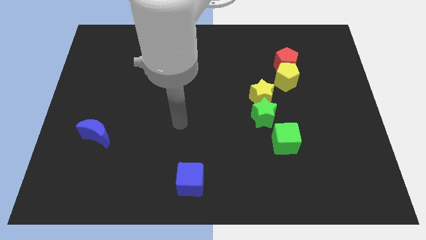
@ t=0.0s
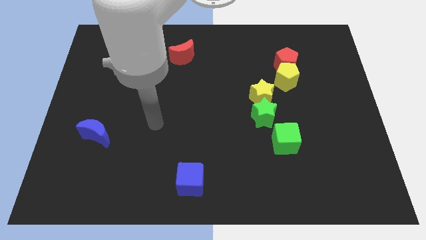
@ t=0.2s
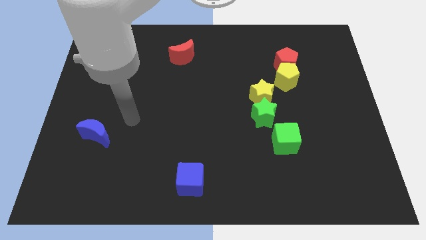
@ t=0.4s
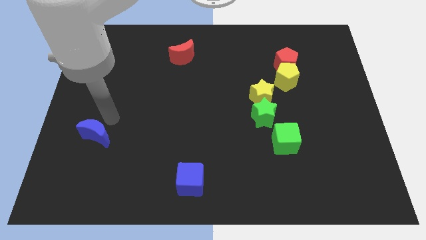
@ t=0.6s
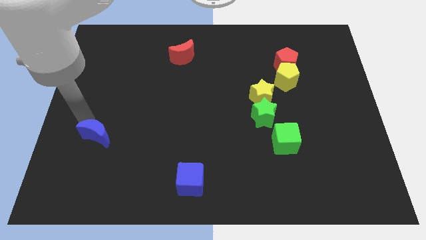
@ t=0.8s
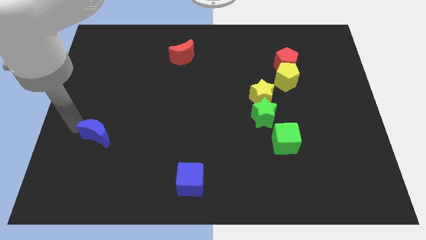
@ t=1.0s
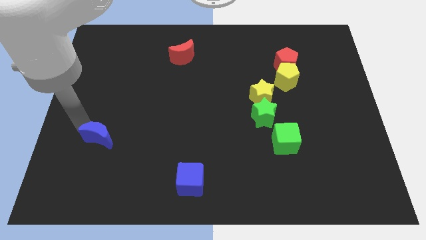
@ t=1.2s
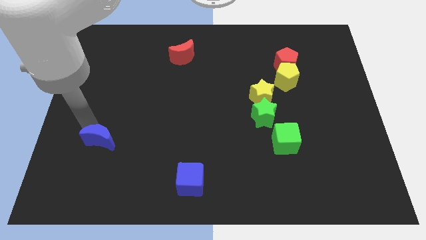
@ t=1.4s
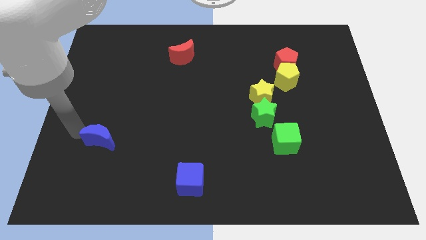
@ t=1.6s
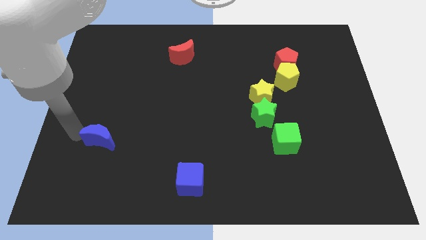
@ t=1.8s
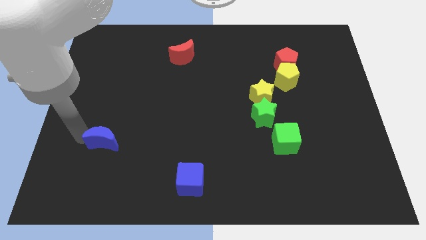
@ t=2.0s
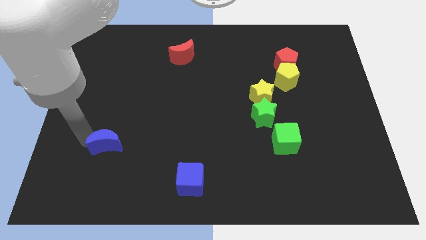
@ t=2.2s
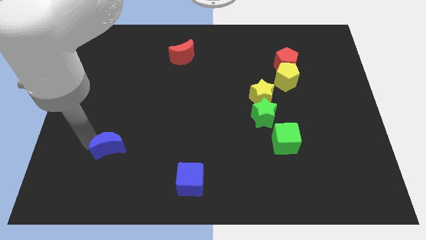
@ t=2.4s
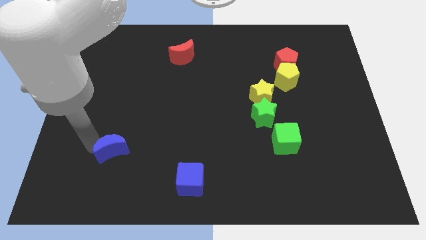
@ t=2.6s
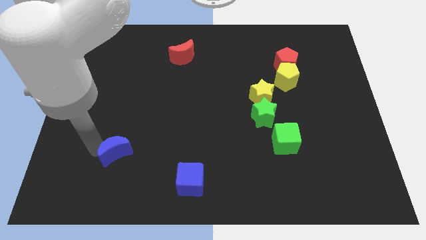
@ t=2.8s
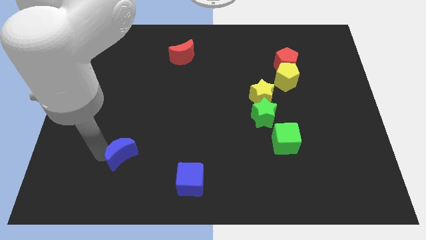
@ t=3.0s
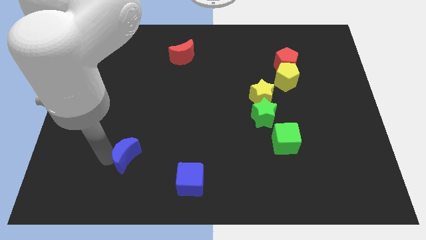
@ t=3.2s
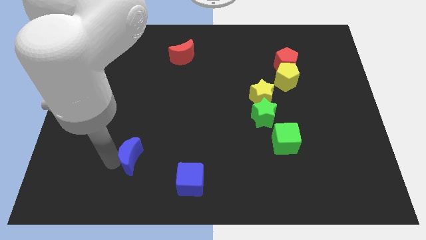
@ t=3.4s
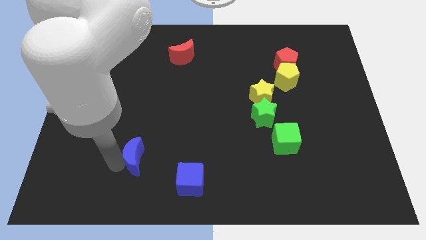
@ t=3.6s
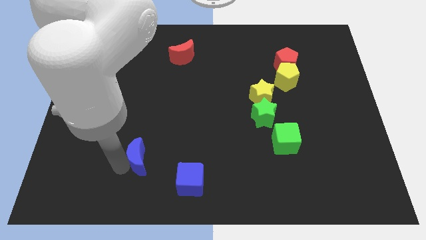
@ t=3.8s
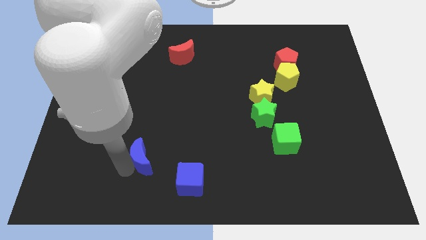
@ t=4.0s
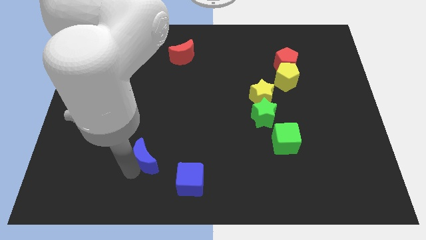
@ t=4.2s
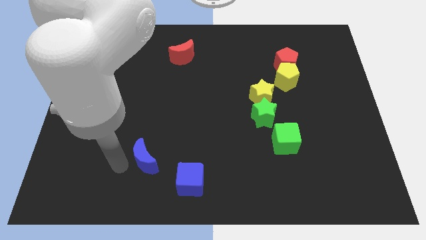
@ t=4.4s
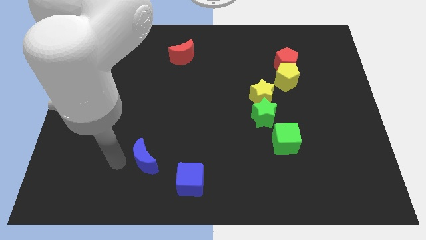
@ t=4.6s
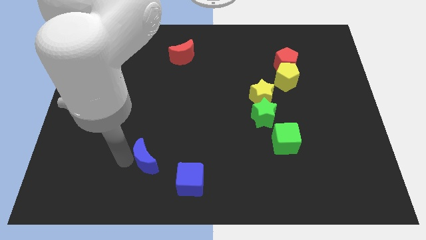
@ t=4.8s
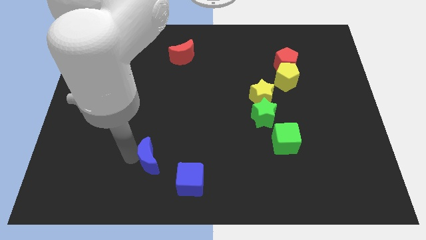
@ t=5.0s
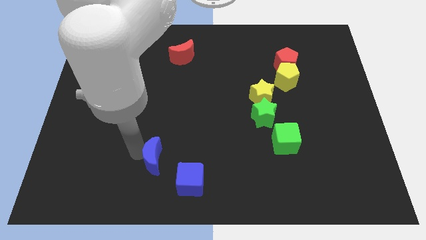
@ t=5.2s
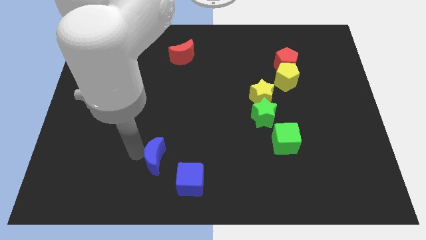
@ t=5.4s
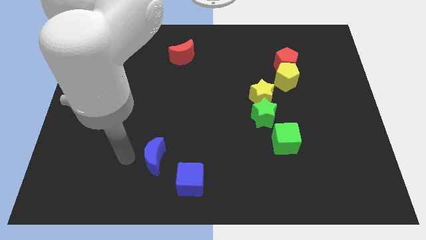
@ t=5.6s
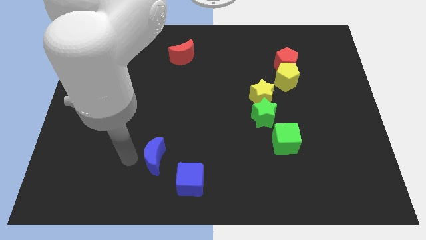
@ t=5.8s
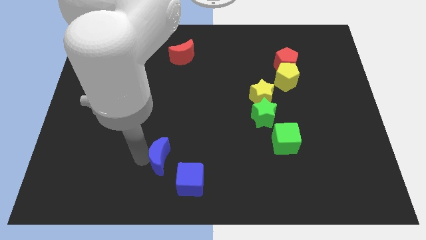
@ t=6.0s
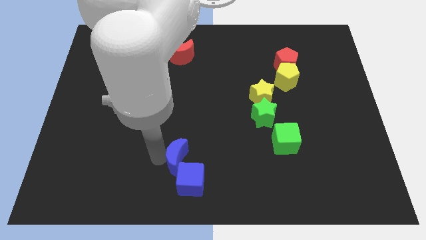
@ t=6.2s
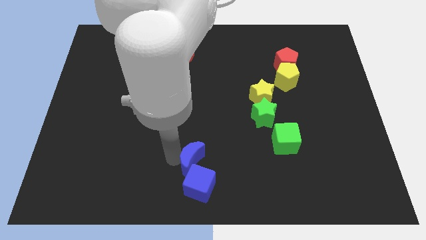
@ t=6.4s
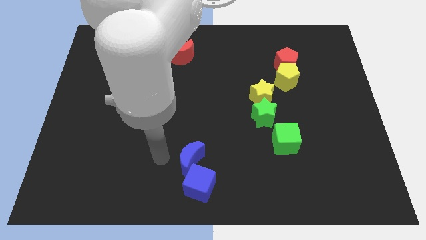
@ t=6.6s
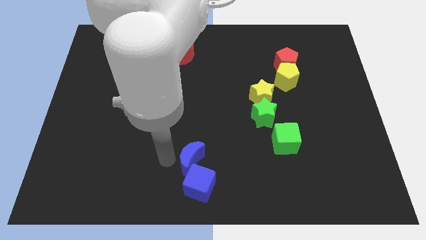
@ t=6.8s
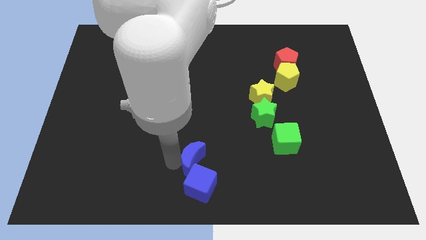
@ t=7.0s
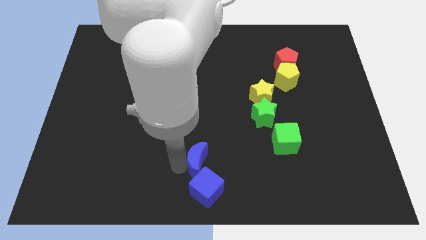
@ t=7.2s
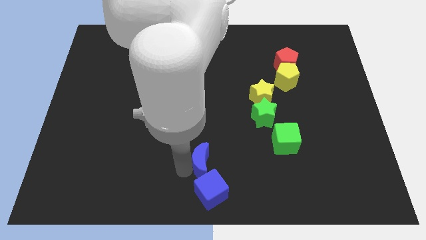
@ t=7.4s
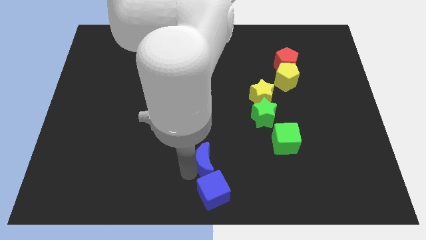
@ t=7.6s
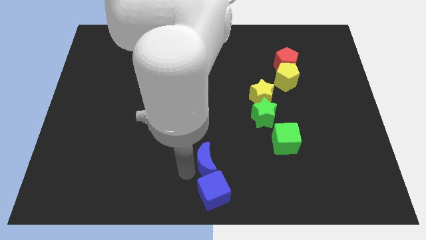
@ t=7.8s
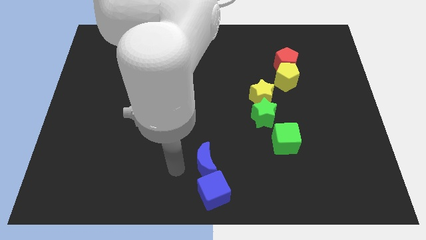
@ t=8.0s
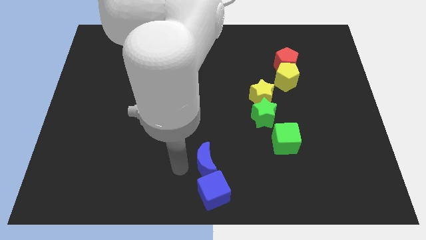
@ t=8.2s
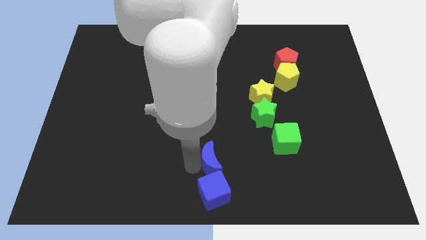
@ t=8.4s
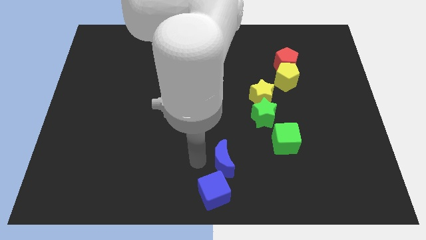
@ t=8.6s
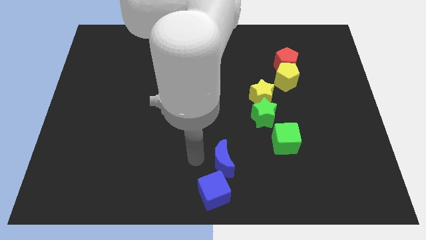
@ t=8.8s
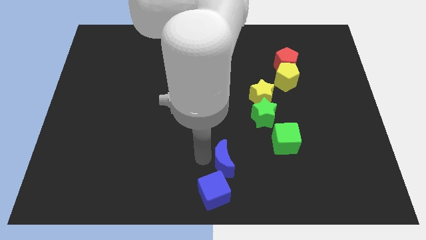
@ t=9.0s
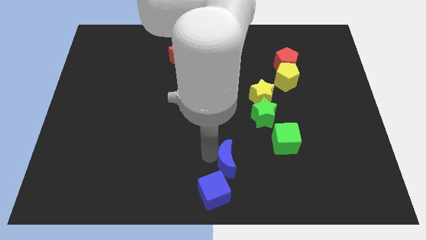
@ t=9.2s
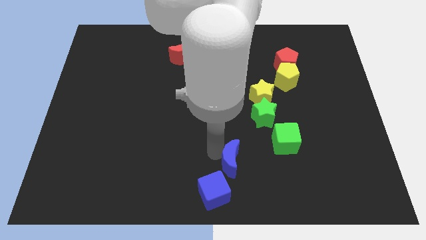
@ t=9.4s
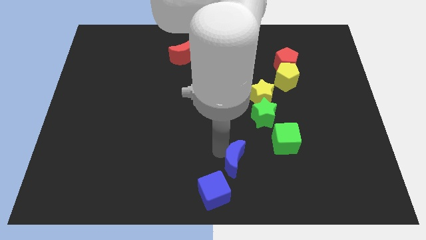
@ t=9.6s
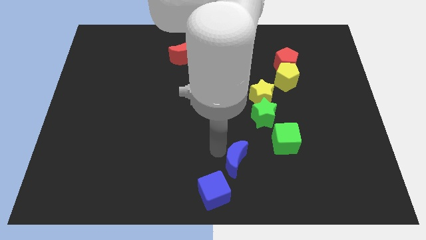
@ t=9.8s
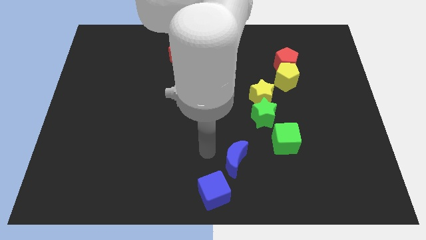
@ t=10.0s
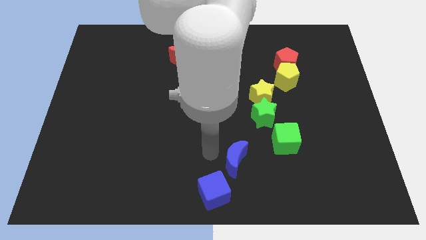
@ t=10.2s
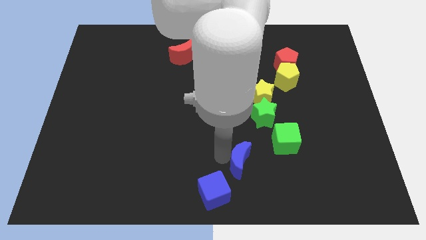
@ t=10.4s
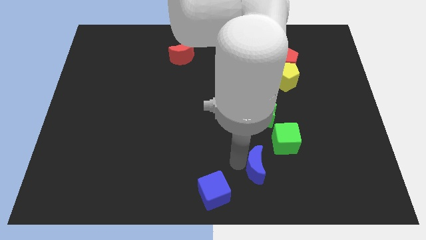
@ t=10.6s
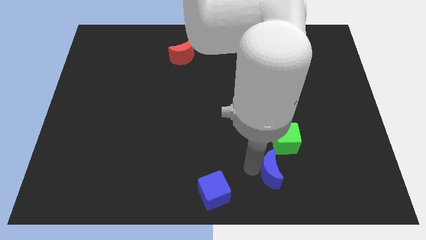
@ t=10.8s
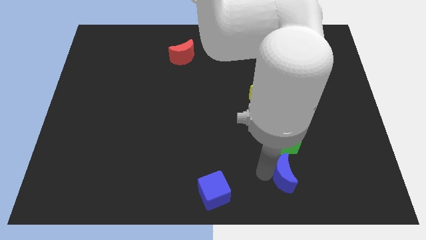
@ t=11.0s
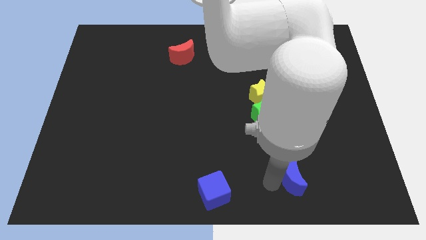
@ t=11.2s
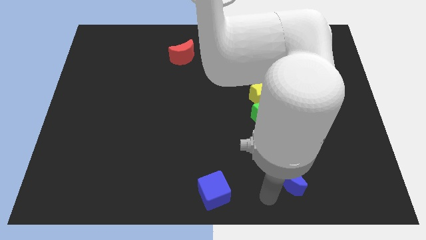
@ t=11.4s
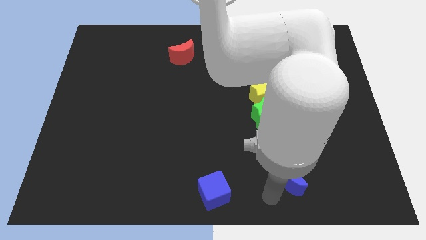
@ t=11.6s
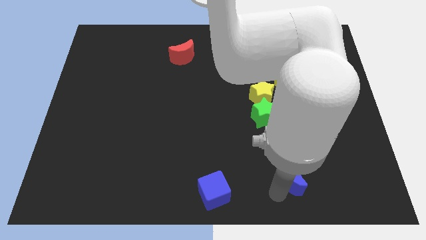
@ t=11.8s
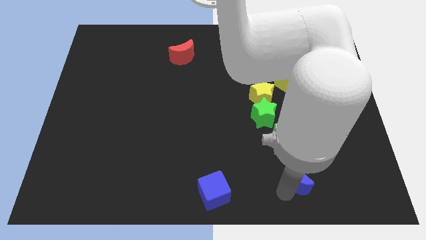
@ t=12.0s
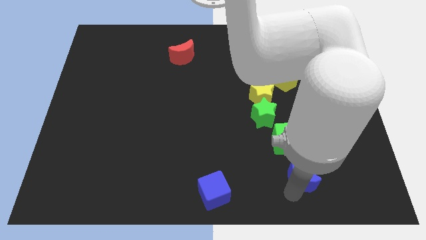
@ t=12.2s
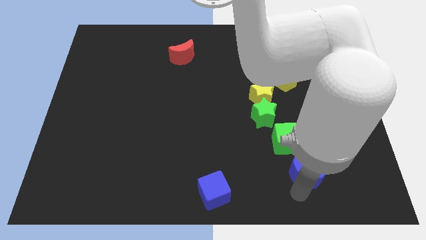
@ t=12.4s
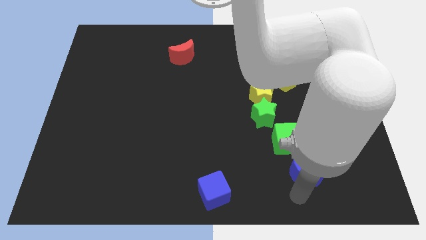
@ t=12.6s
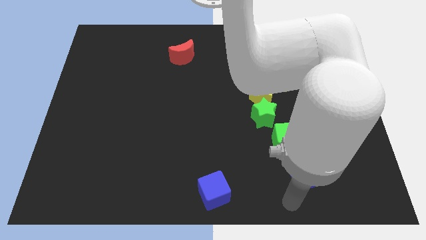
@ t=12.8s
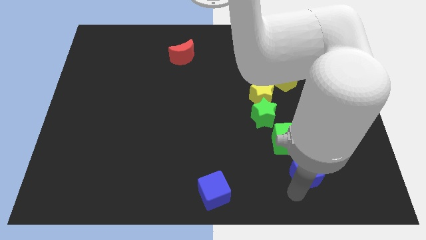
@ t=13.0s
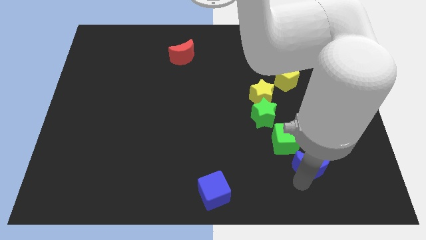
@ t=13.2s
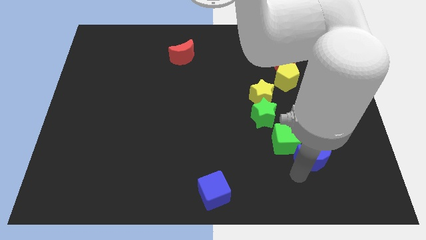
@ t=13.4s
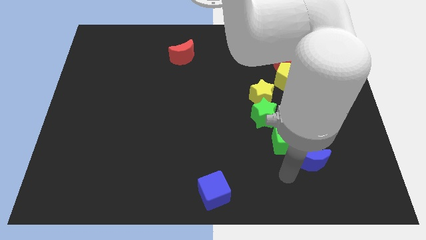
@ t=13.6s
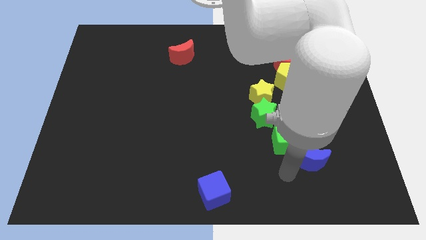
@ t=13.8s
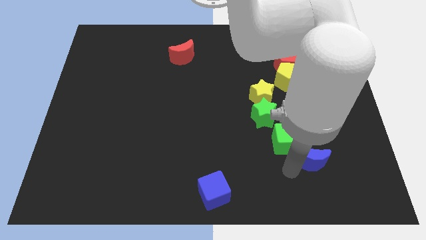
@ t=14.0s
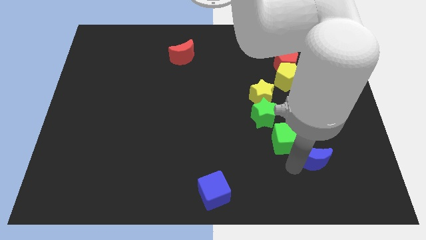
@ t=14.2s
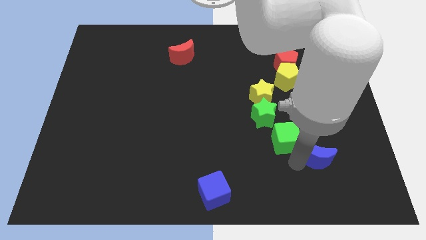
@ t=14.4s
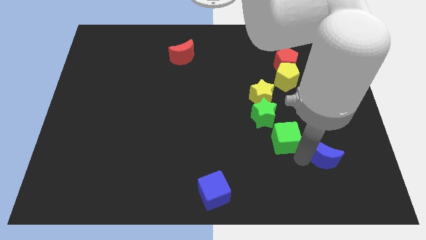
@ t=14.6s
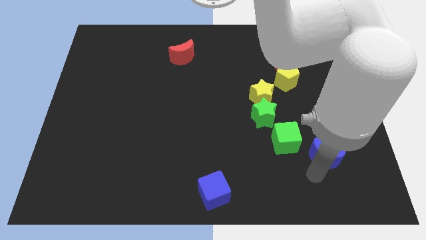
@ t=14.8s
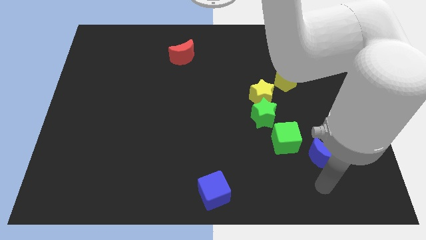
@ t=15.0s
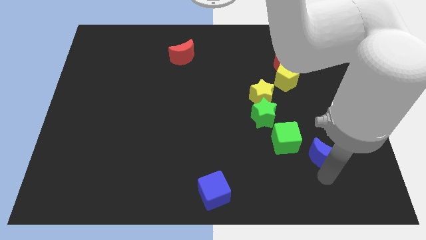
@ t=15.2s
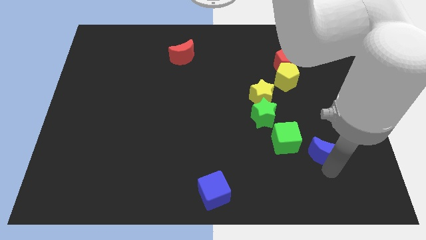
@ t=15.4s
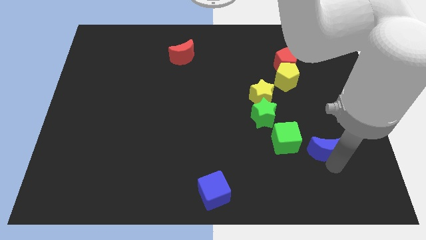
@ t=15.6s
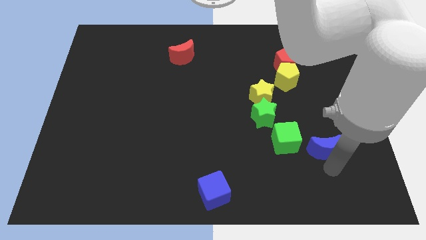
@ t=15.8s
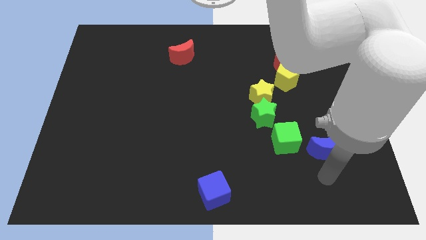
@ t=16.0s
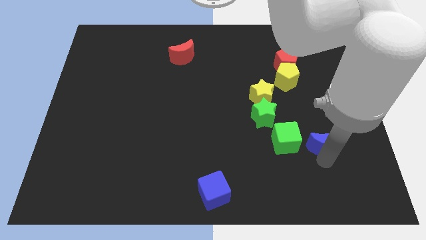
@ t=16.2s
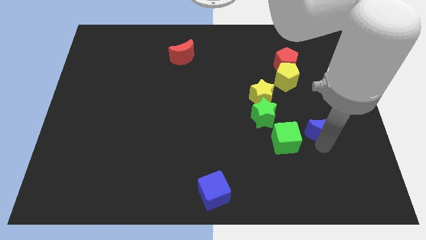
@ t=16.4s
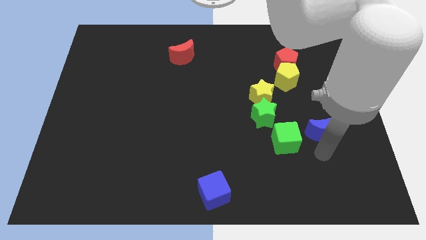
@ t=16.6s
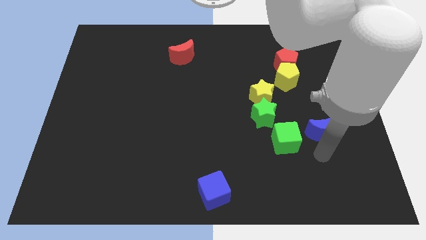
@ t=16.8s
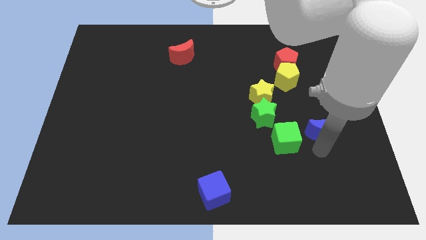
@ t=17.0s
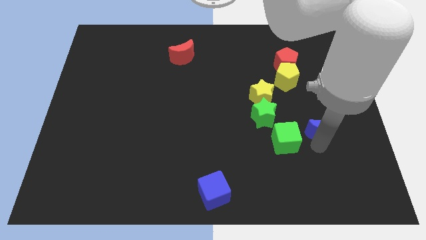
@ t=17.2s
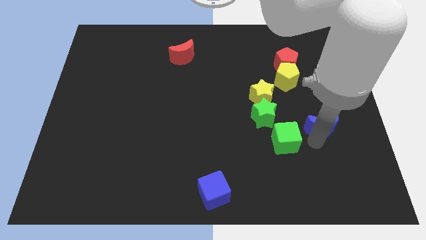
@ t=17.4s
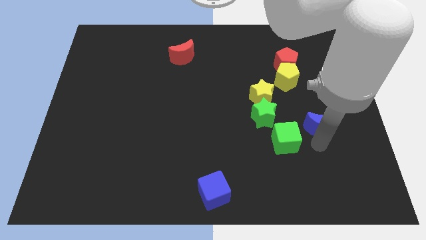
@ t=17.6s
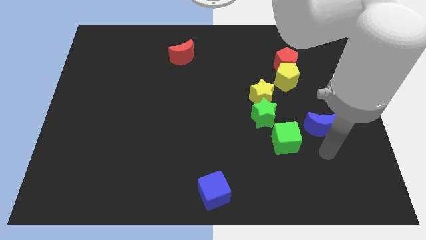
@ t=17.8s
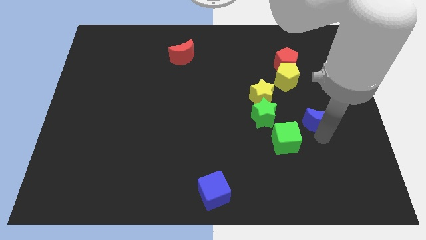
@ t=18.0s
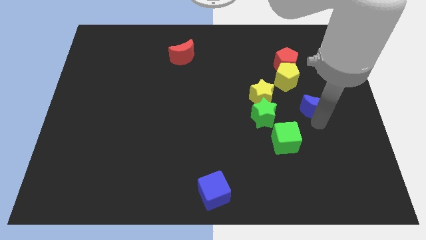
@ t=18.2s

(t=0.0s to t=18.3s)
move the blue moon diagonally down and to the right of the yellow pentagon
